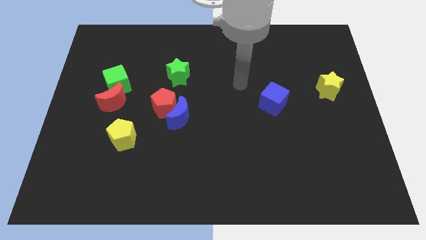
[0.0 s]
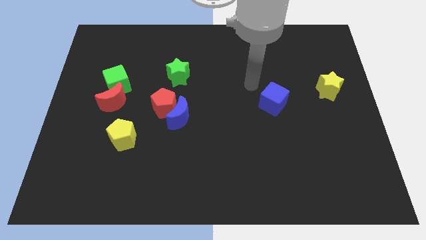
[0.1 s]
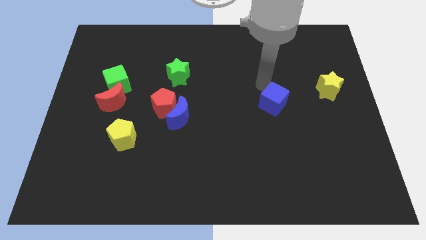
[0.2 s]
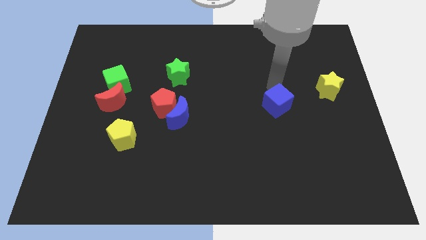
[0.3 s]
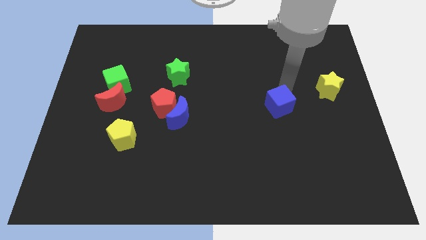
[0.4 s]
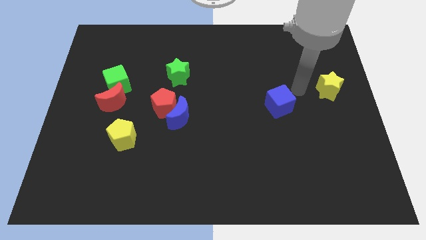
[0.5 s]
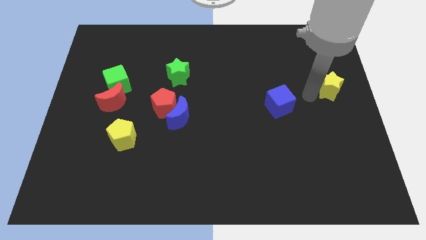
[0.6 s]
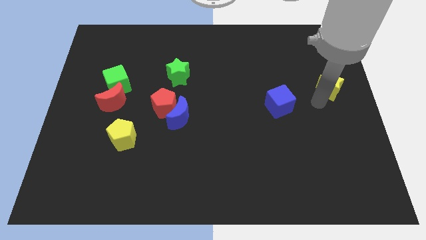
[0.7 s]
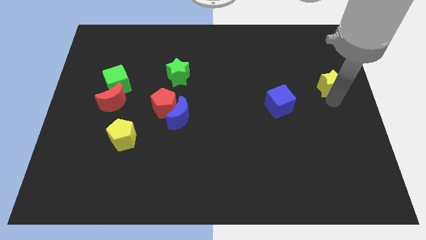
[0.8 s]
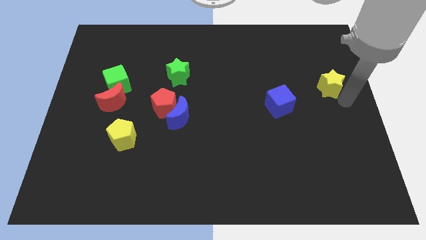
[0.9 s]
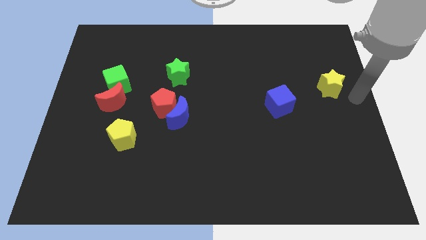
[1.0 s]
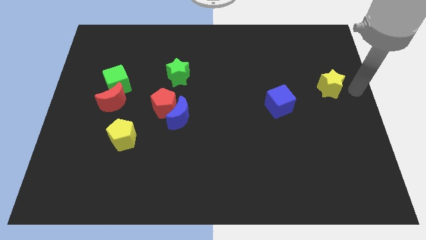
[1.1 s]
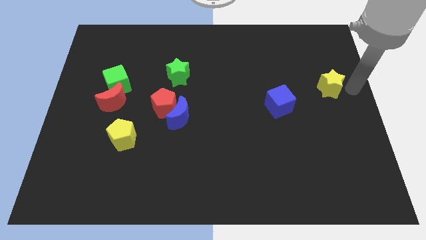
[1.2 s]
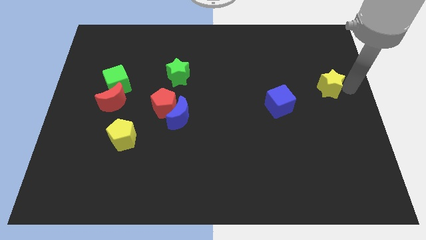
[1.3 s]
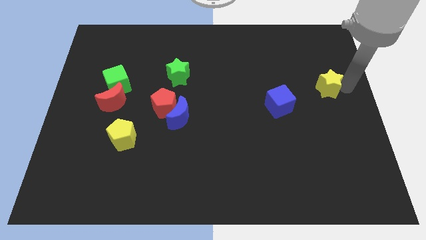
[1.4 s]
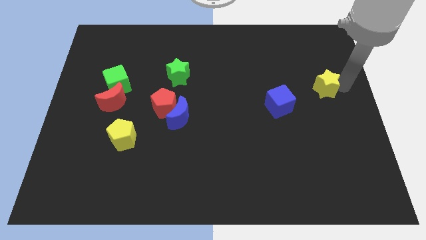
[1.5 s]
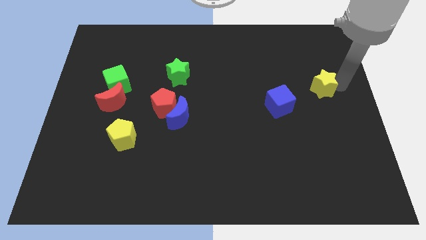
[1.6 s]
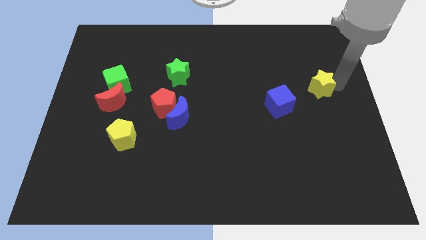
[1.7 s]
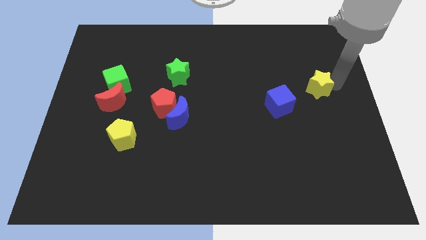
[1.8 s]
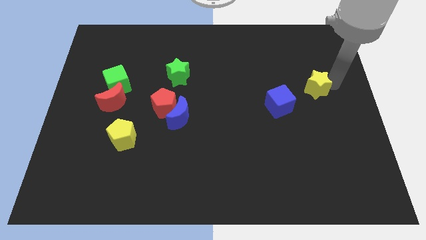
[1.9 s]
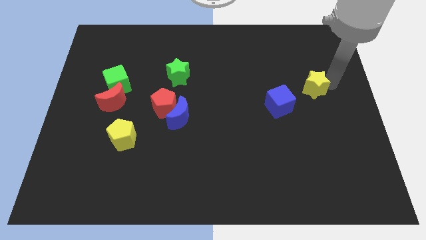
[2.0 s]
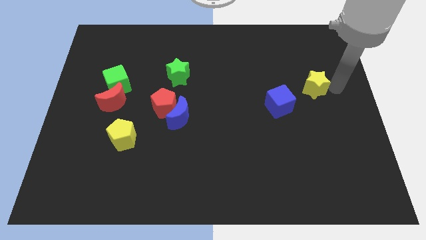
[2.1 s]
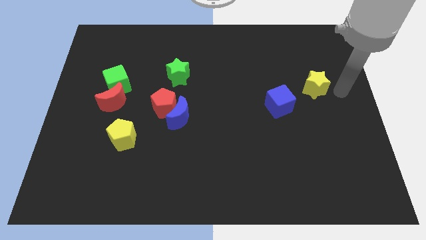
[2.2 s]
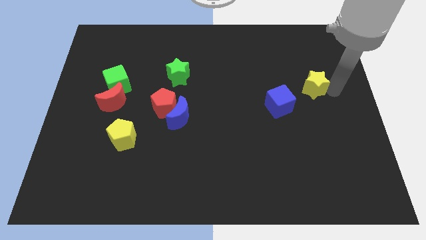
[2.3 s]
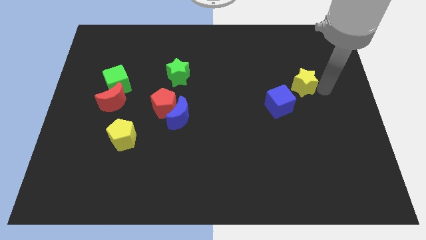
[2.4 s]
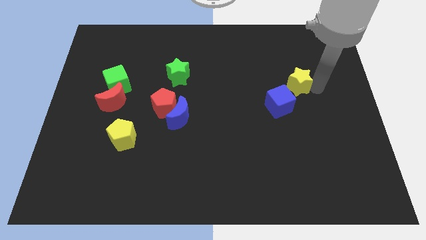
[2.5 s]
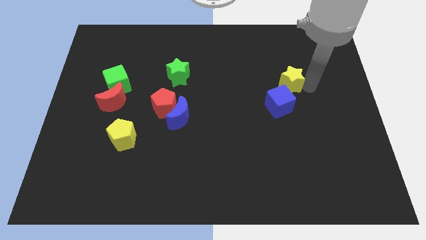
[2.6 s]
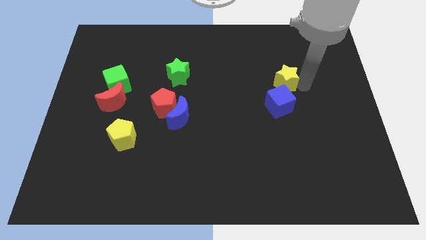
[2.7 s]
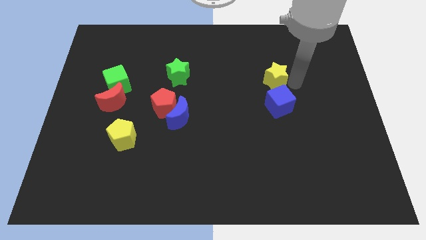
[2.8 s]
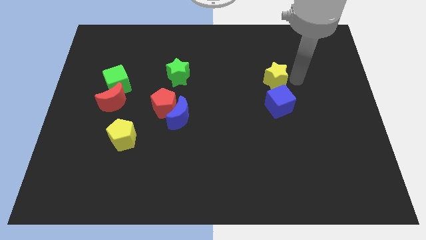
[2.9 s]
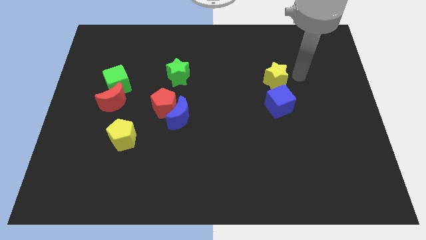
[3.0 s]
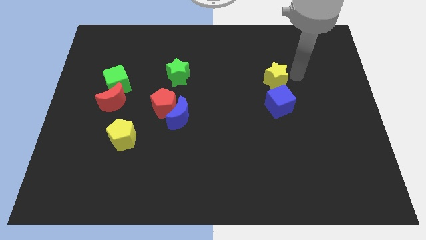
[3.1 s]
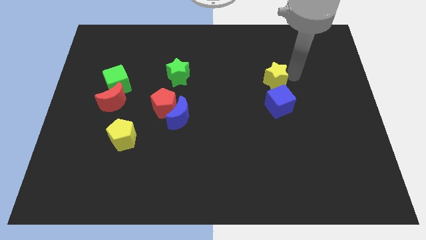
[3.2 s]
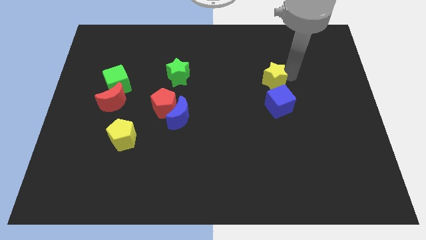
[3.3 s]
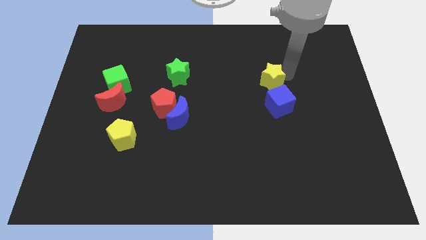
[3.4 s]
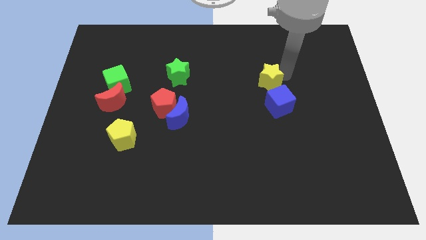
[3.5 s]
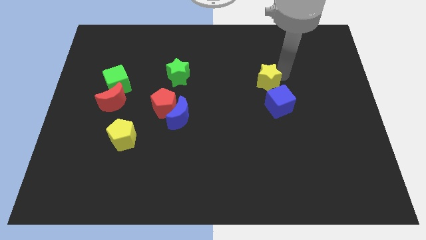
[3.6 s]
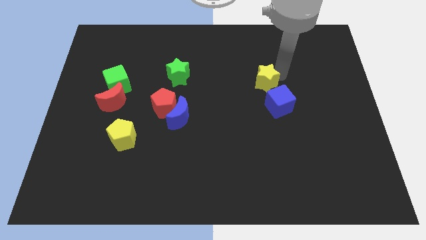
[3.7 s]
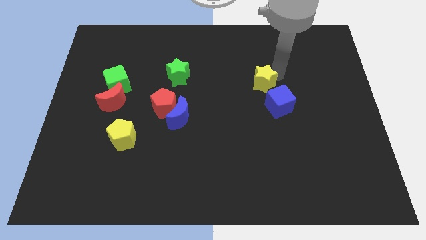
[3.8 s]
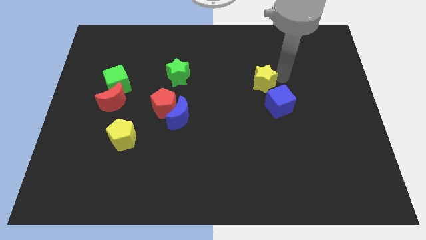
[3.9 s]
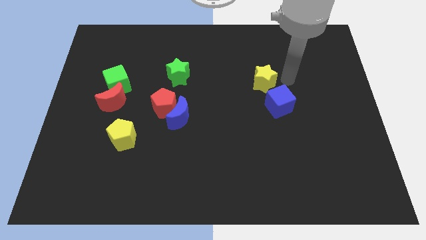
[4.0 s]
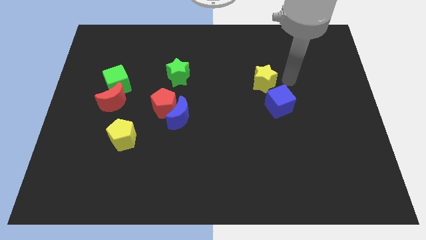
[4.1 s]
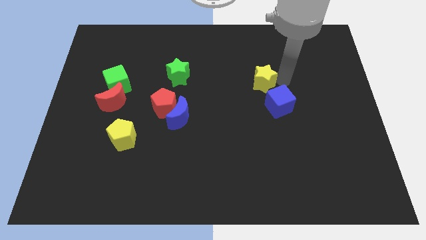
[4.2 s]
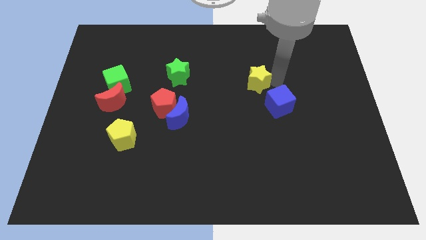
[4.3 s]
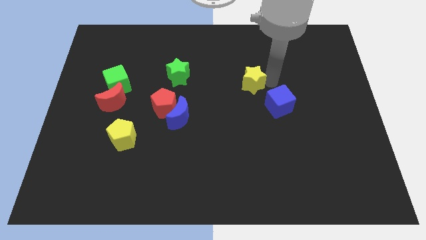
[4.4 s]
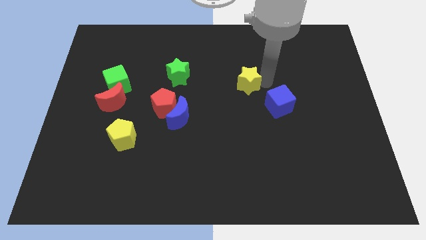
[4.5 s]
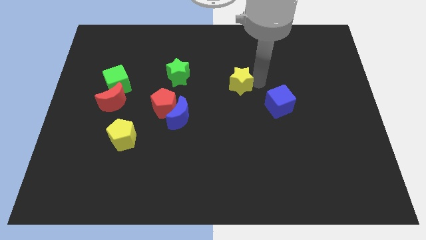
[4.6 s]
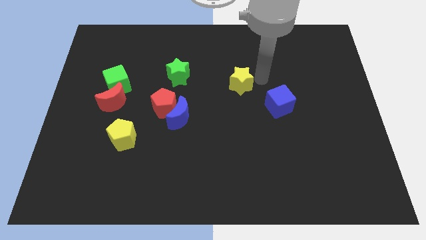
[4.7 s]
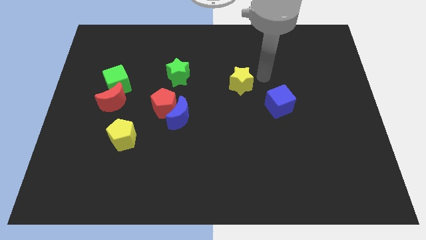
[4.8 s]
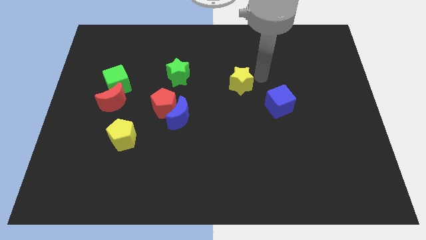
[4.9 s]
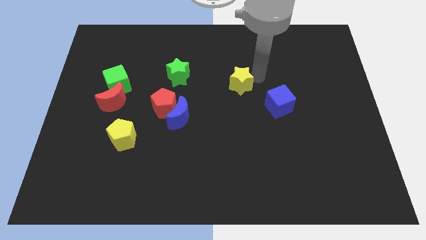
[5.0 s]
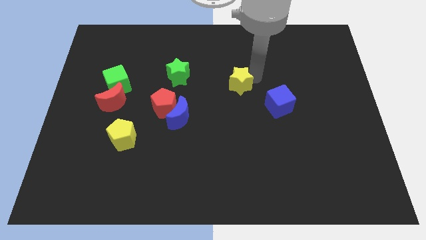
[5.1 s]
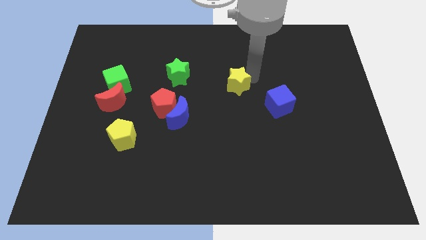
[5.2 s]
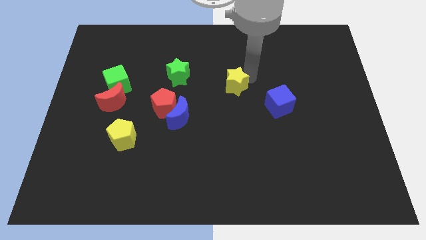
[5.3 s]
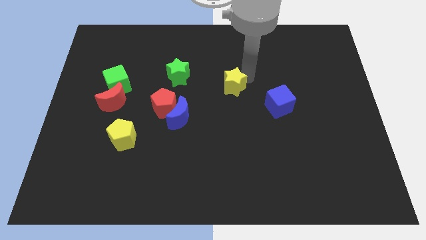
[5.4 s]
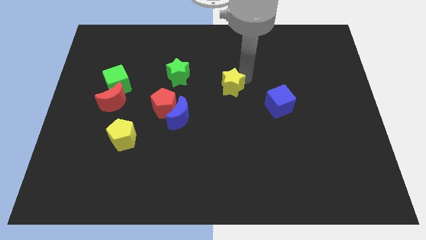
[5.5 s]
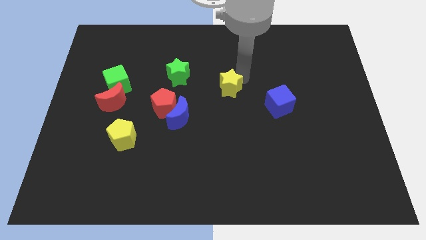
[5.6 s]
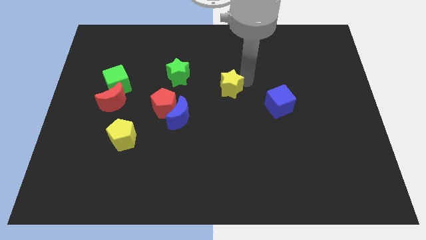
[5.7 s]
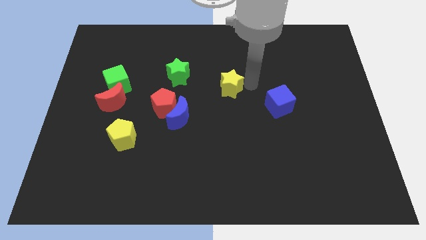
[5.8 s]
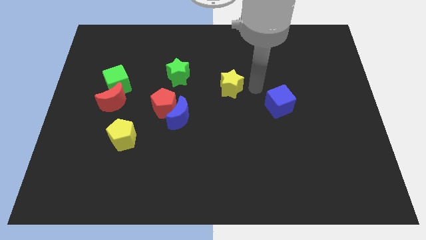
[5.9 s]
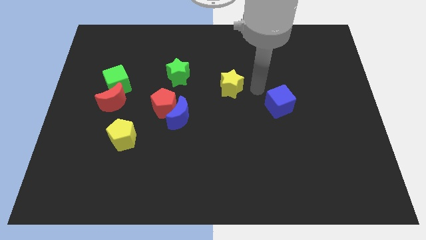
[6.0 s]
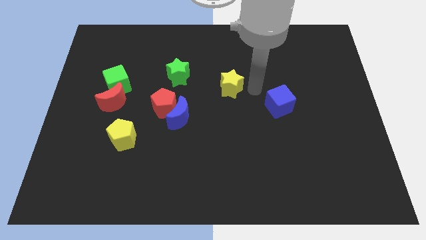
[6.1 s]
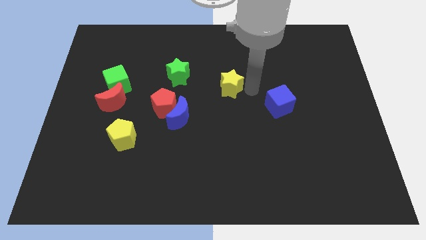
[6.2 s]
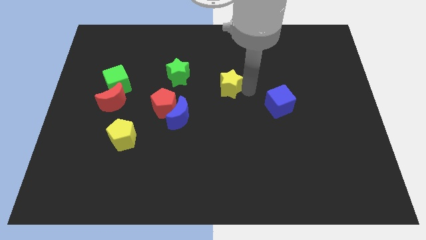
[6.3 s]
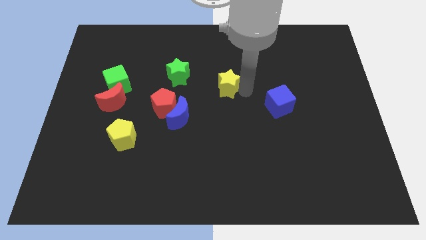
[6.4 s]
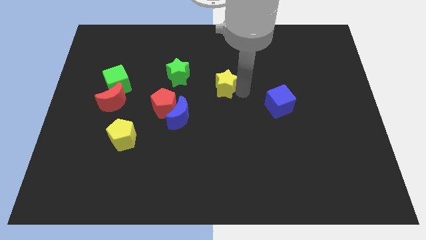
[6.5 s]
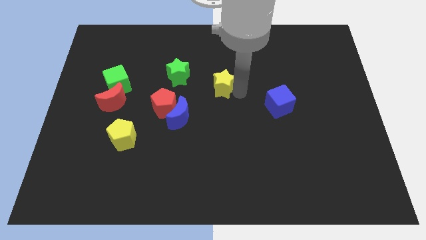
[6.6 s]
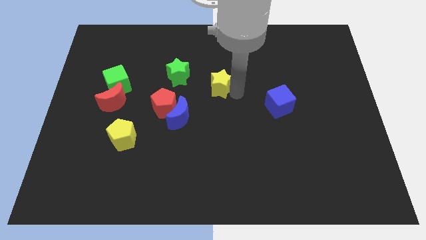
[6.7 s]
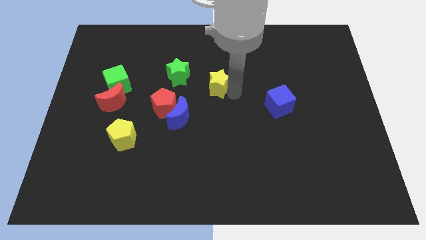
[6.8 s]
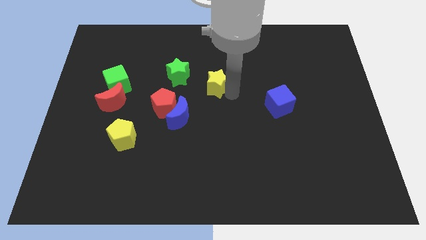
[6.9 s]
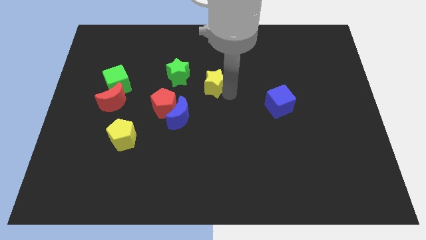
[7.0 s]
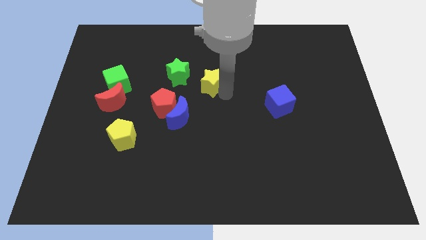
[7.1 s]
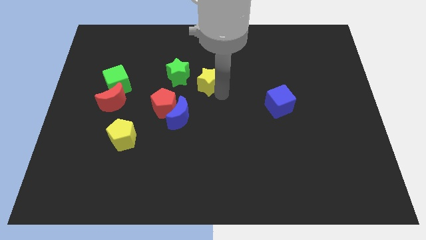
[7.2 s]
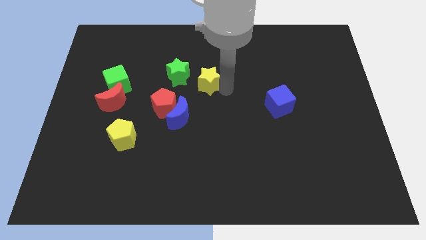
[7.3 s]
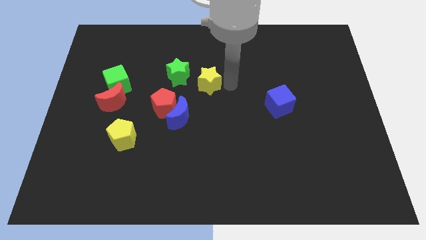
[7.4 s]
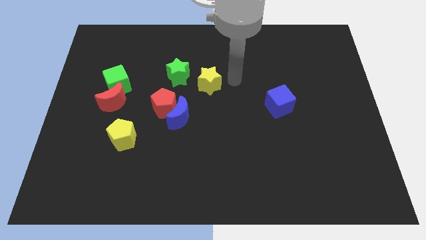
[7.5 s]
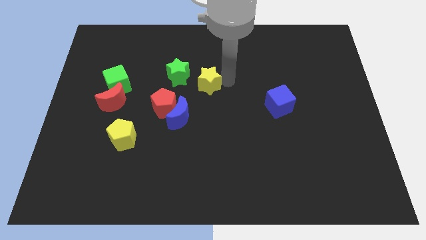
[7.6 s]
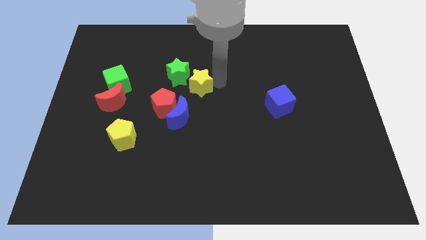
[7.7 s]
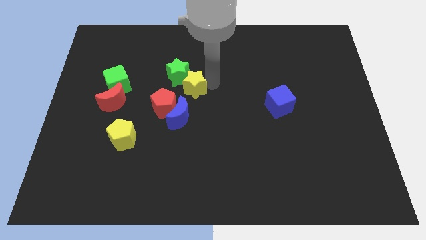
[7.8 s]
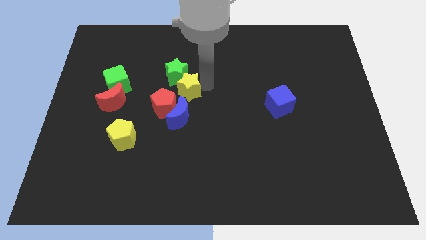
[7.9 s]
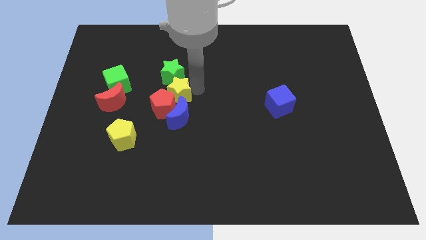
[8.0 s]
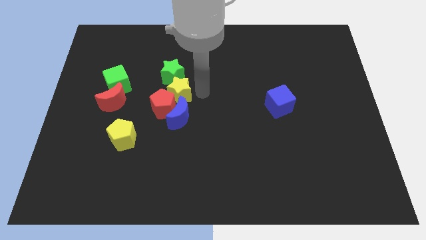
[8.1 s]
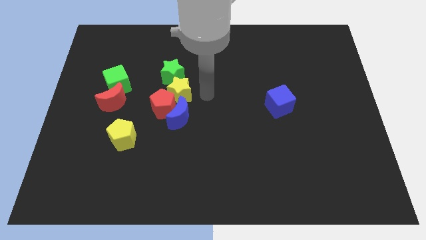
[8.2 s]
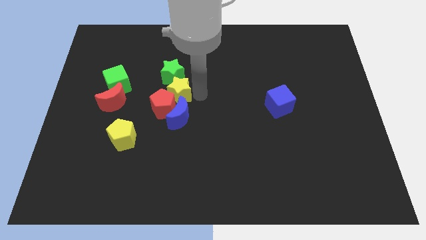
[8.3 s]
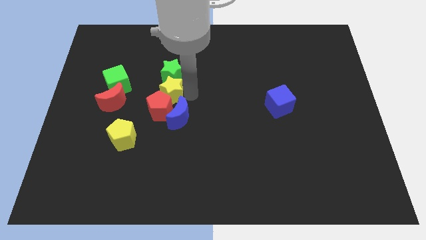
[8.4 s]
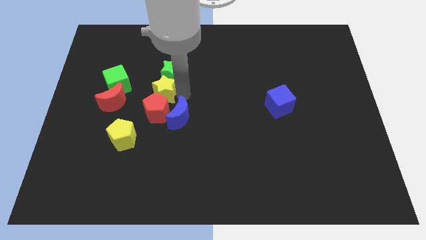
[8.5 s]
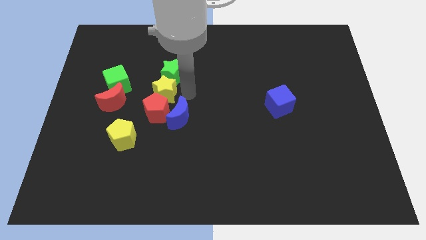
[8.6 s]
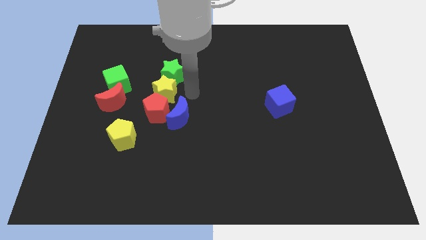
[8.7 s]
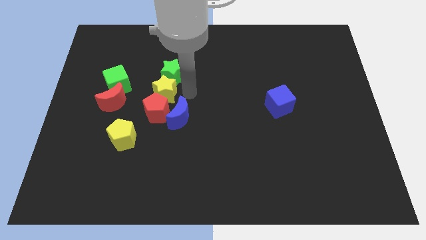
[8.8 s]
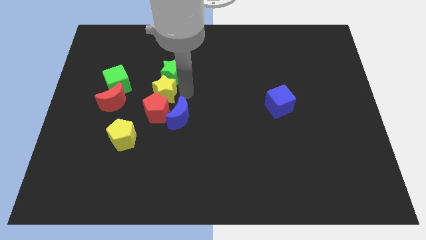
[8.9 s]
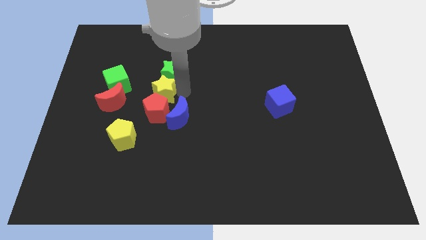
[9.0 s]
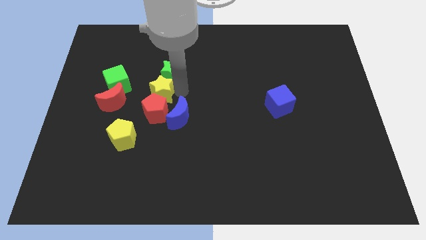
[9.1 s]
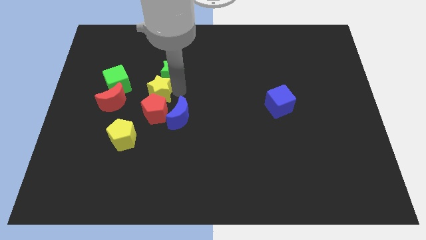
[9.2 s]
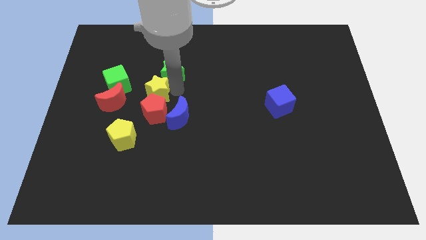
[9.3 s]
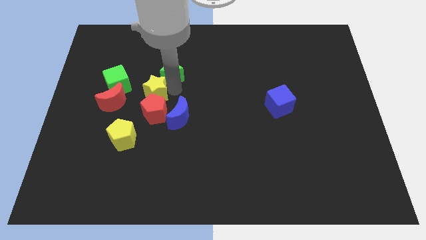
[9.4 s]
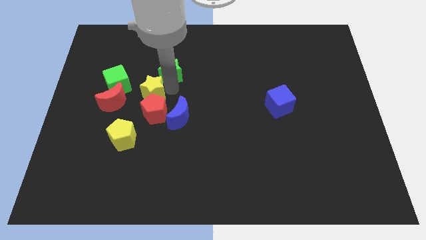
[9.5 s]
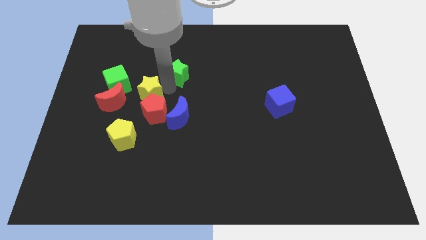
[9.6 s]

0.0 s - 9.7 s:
push the yellow star to the top side of the yellow pentagon
